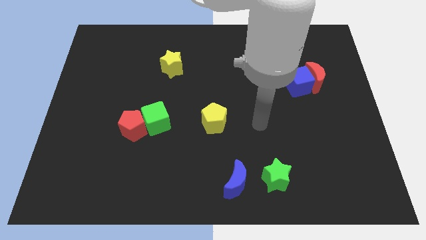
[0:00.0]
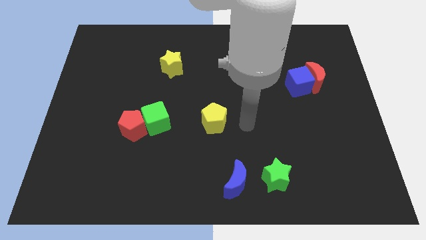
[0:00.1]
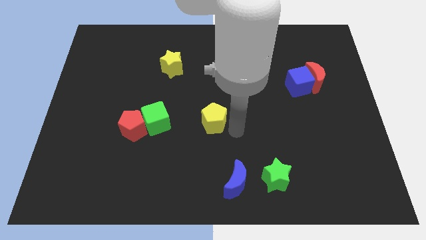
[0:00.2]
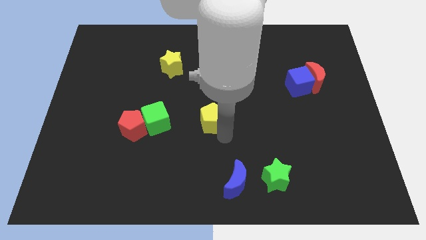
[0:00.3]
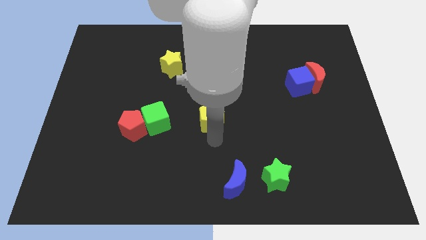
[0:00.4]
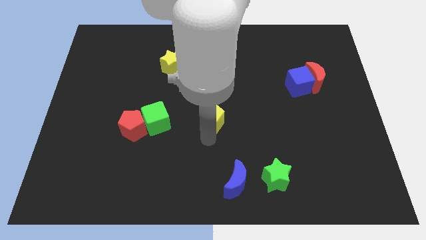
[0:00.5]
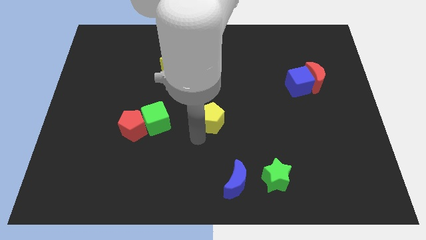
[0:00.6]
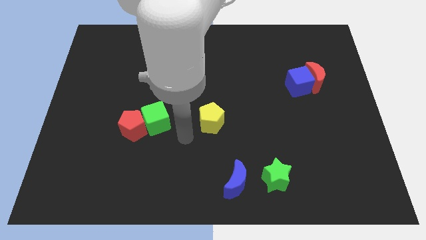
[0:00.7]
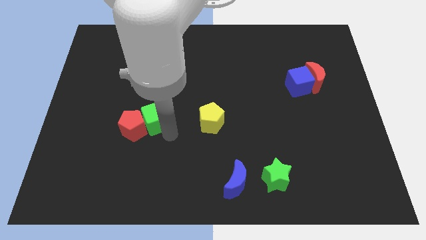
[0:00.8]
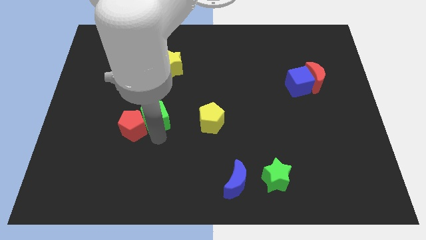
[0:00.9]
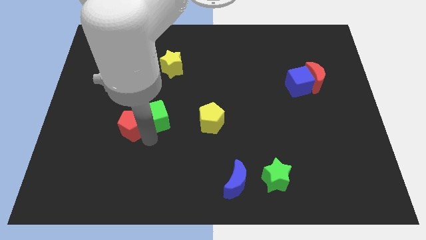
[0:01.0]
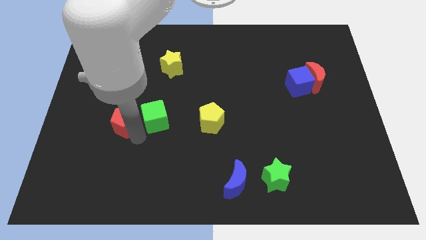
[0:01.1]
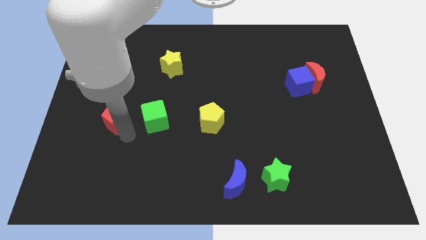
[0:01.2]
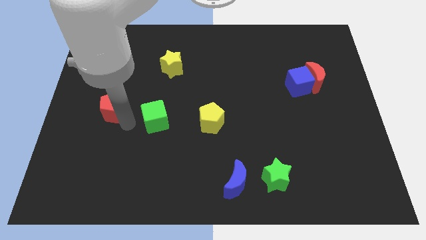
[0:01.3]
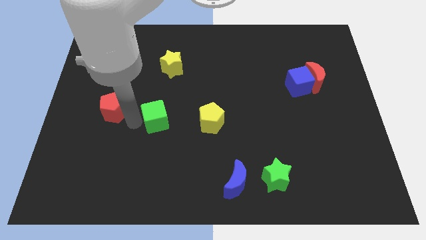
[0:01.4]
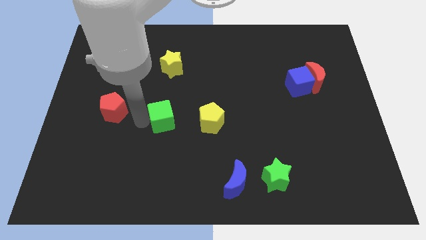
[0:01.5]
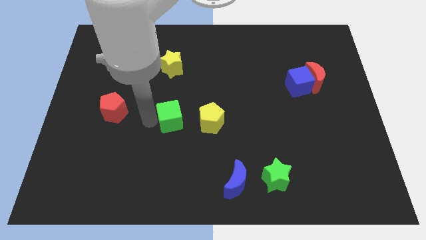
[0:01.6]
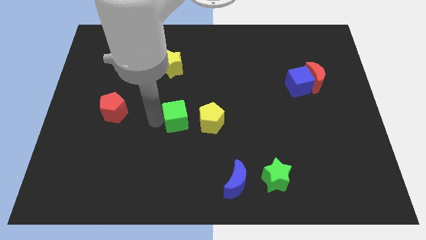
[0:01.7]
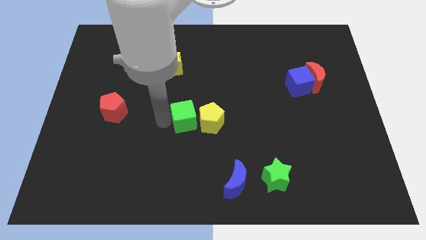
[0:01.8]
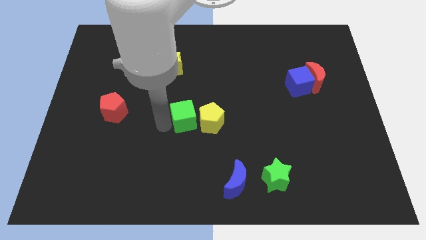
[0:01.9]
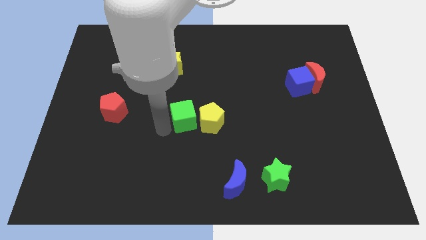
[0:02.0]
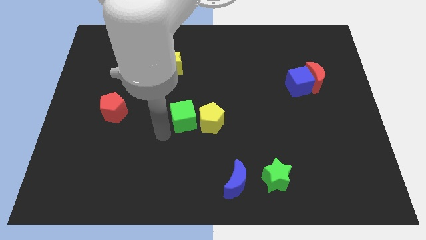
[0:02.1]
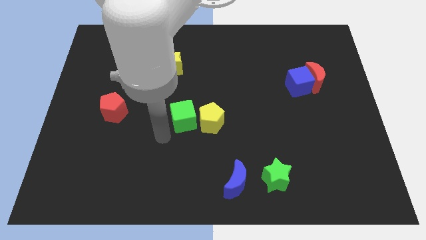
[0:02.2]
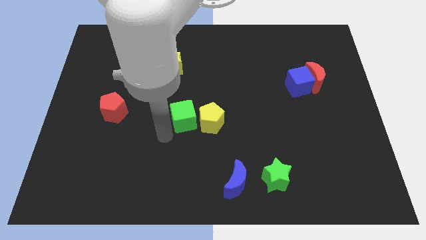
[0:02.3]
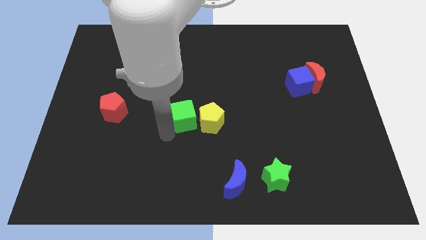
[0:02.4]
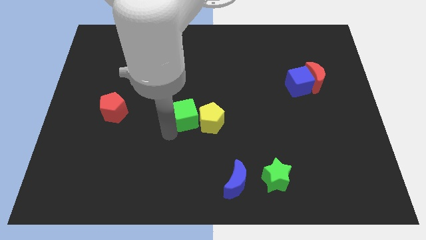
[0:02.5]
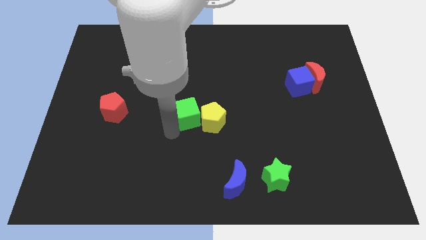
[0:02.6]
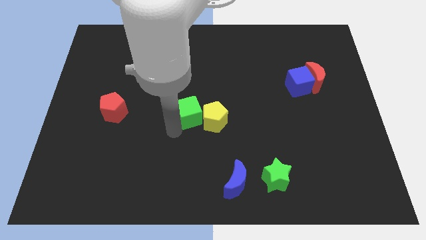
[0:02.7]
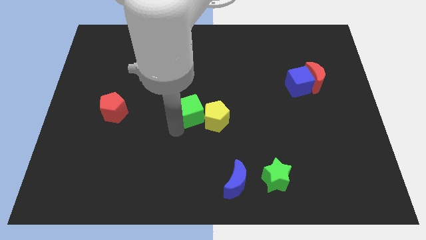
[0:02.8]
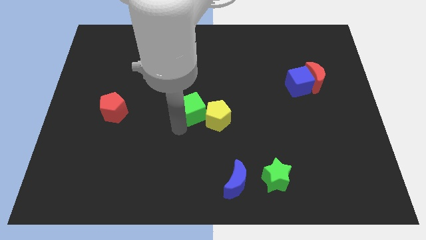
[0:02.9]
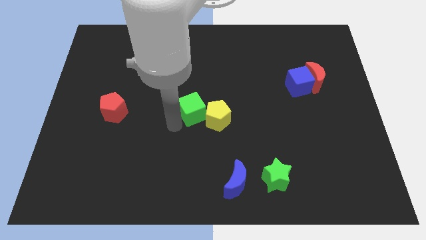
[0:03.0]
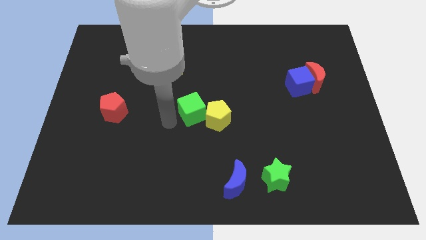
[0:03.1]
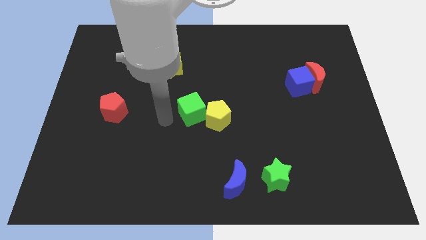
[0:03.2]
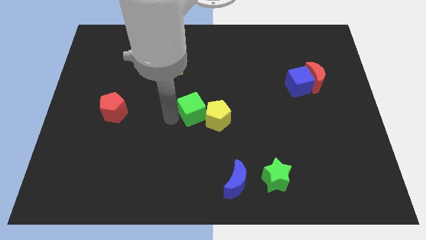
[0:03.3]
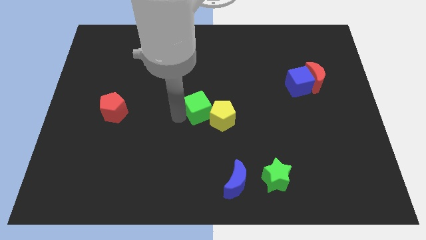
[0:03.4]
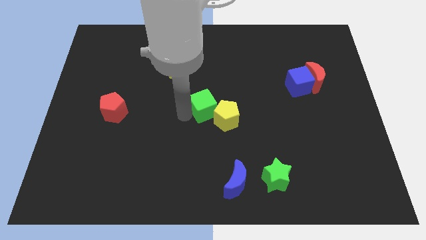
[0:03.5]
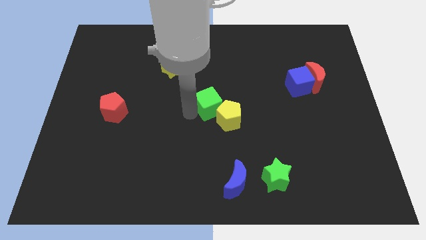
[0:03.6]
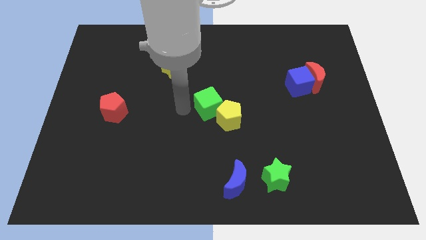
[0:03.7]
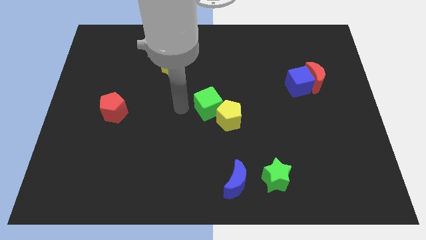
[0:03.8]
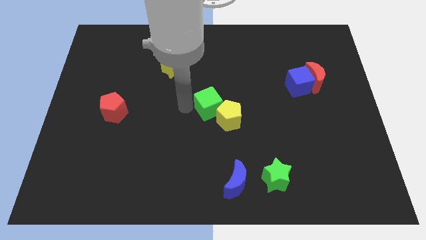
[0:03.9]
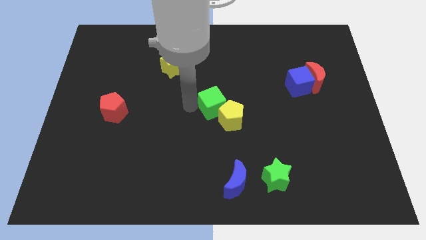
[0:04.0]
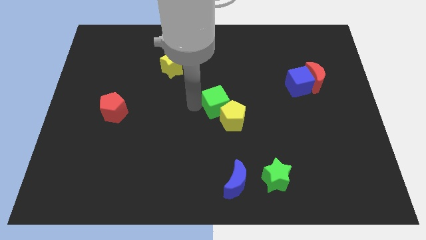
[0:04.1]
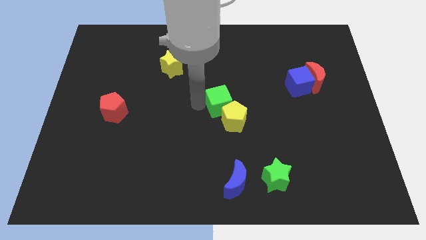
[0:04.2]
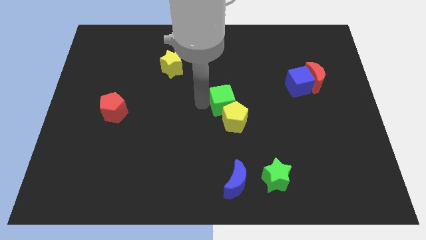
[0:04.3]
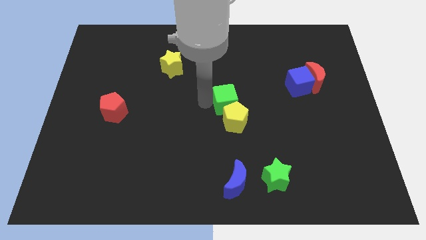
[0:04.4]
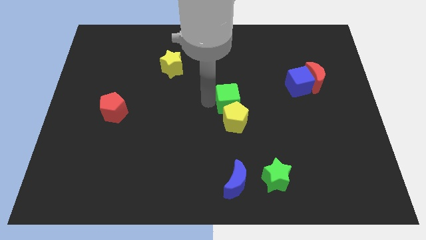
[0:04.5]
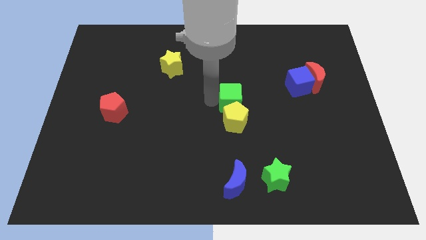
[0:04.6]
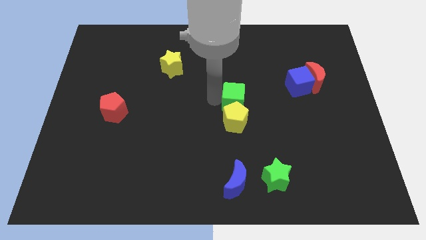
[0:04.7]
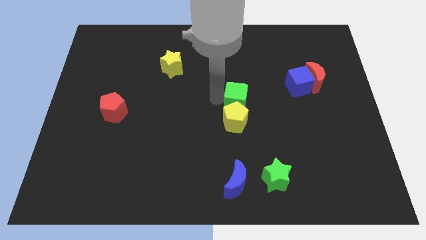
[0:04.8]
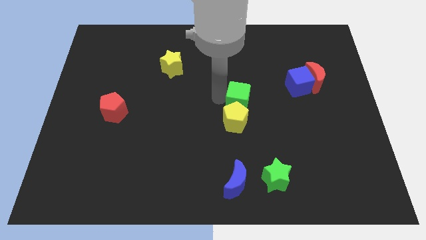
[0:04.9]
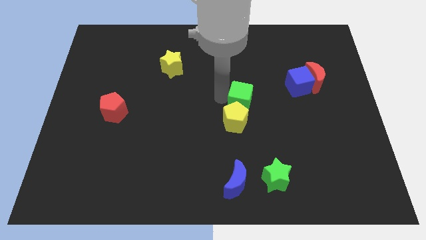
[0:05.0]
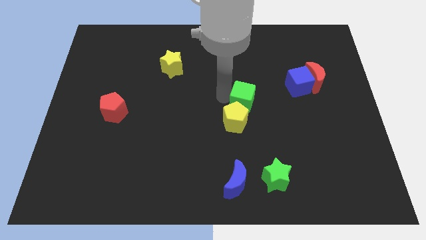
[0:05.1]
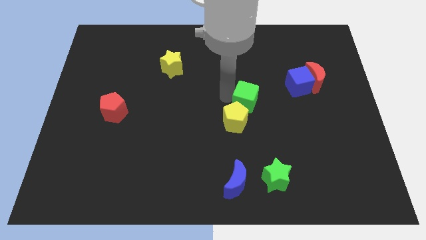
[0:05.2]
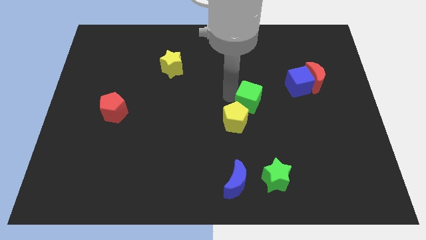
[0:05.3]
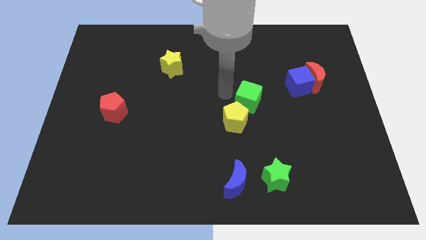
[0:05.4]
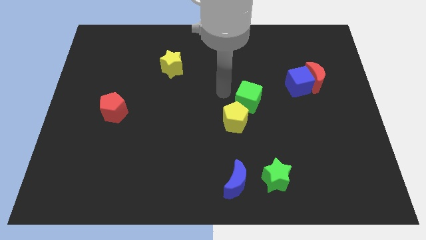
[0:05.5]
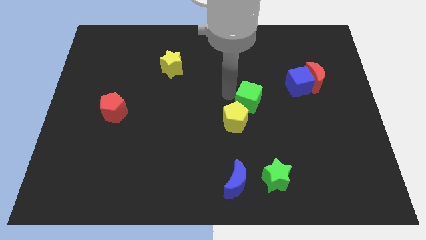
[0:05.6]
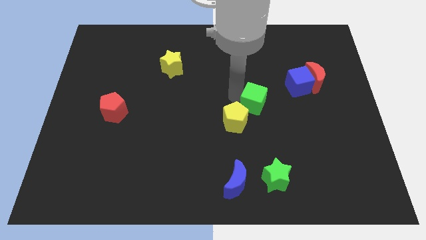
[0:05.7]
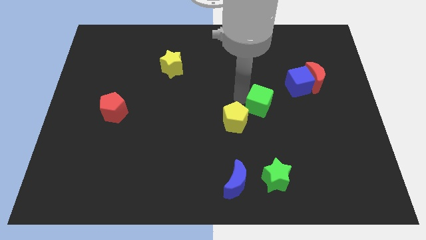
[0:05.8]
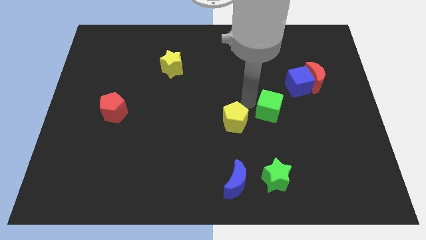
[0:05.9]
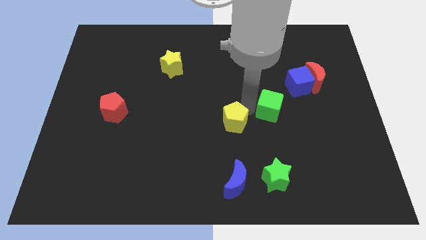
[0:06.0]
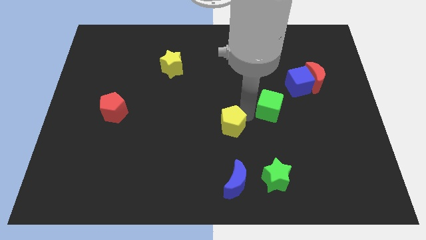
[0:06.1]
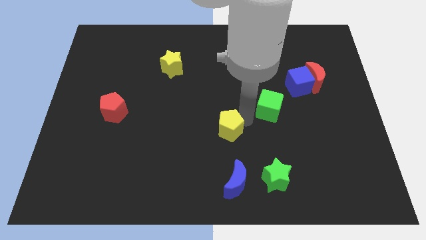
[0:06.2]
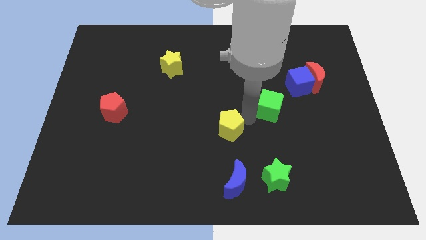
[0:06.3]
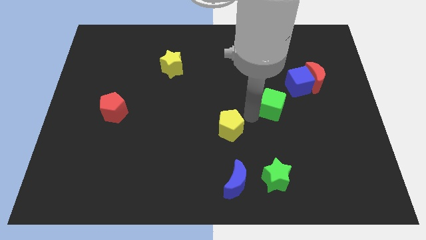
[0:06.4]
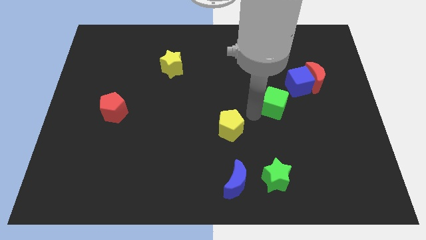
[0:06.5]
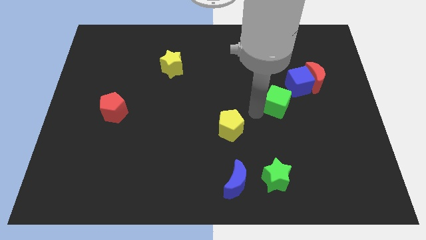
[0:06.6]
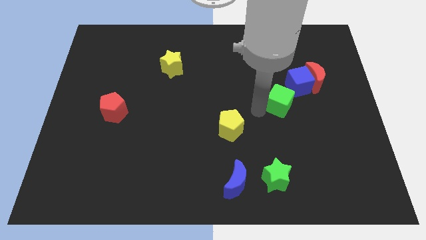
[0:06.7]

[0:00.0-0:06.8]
move the green cube diagonally down and to the left of the red moon

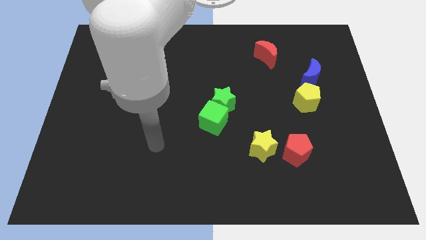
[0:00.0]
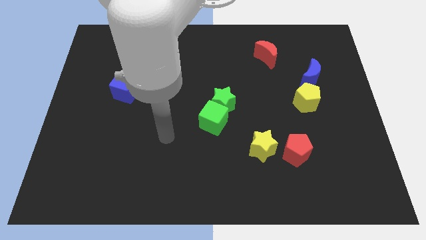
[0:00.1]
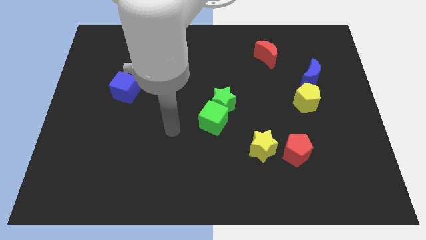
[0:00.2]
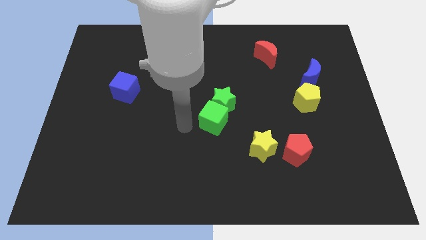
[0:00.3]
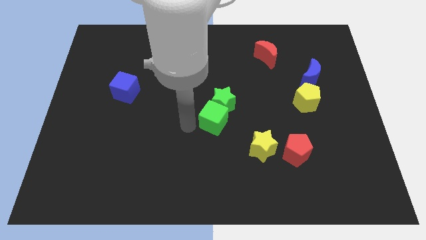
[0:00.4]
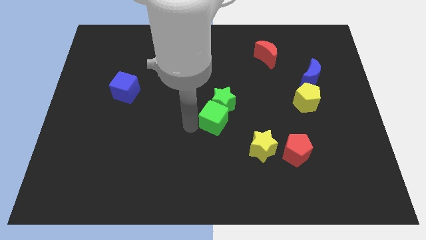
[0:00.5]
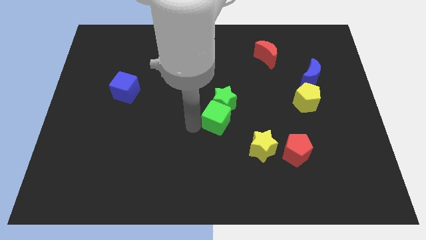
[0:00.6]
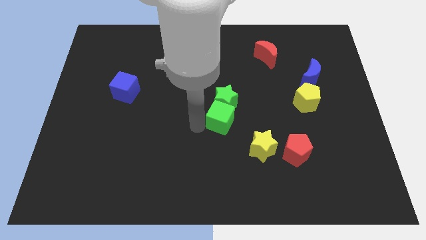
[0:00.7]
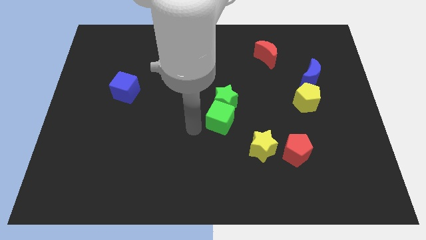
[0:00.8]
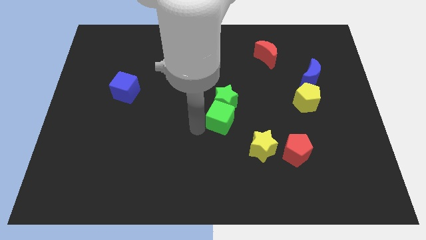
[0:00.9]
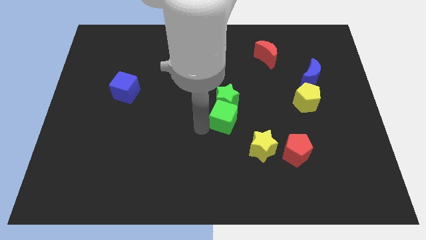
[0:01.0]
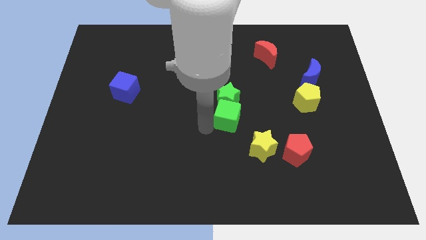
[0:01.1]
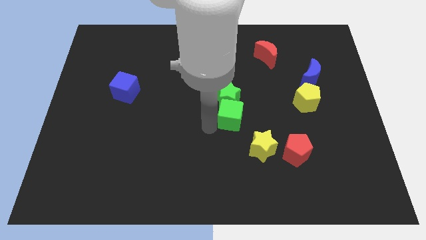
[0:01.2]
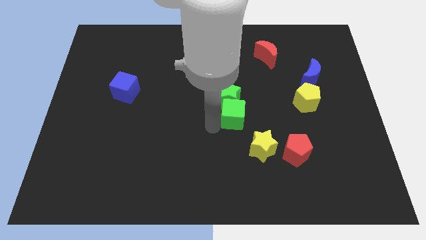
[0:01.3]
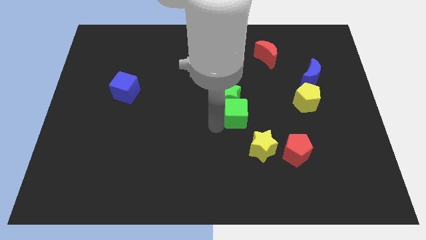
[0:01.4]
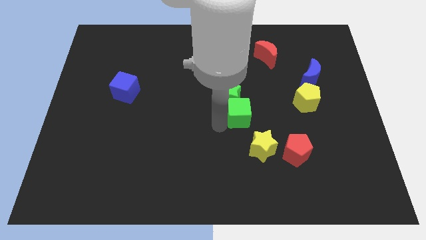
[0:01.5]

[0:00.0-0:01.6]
slide the green cube to the top of the yellow star
